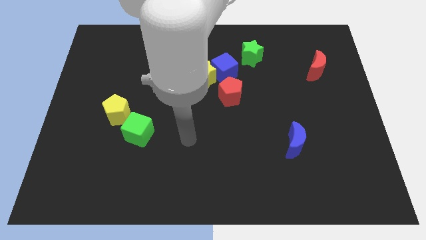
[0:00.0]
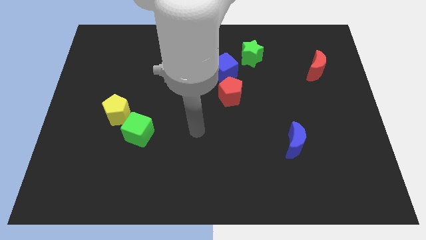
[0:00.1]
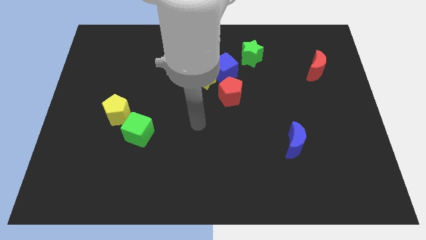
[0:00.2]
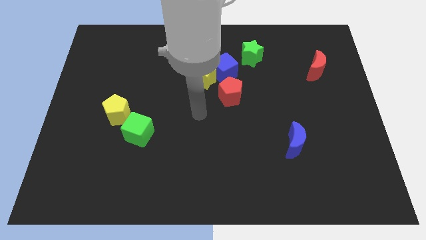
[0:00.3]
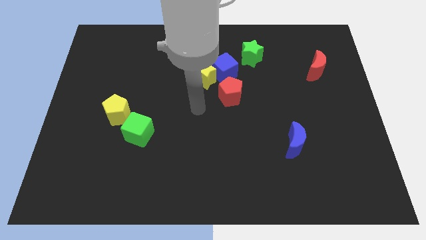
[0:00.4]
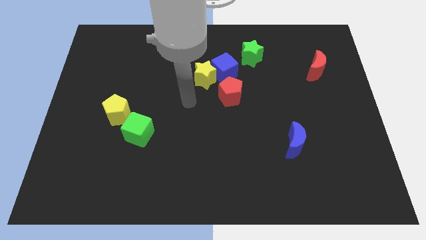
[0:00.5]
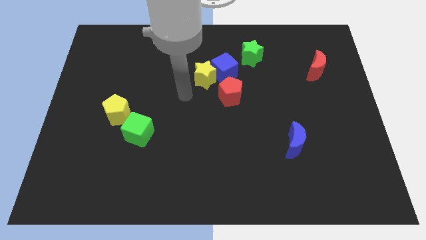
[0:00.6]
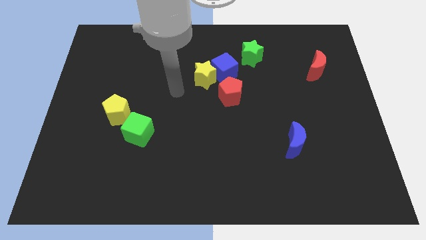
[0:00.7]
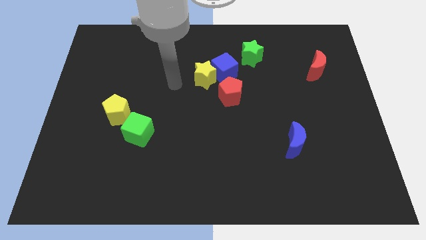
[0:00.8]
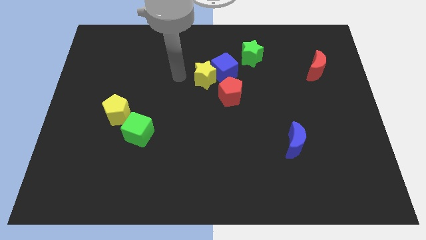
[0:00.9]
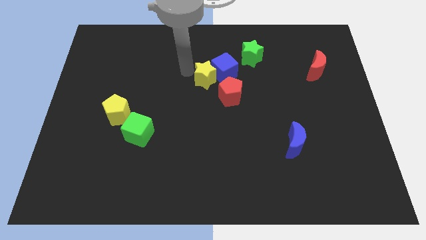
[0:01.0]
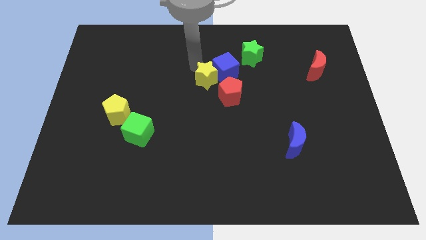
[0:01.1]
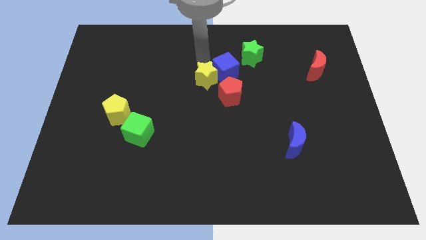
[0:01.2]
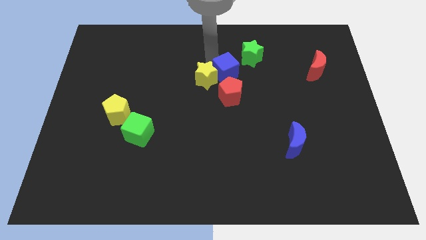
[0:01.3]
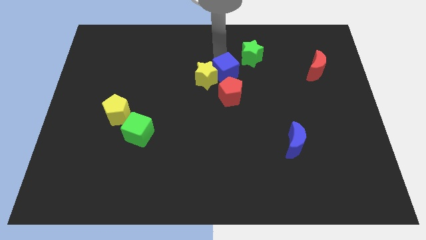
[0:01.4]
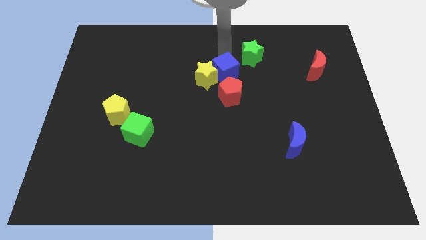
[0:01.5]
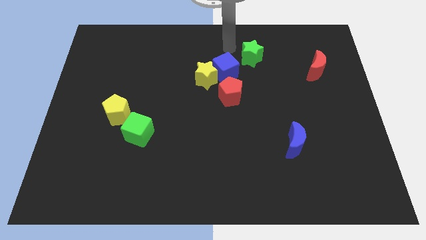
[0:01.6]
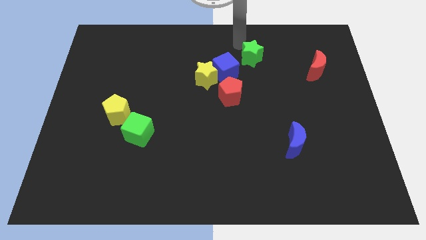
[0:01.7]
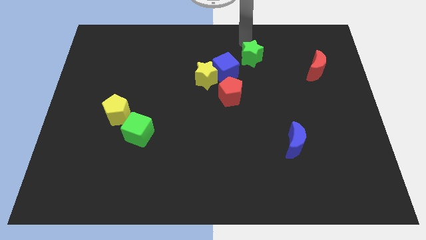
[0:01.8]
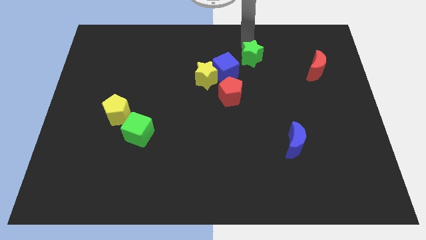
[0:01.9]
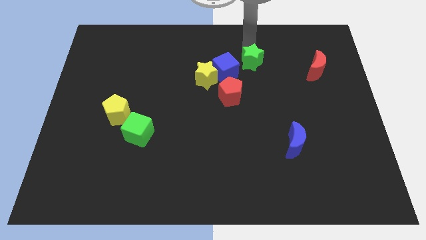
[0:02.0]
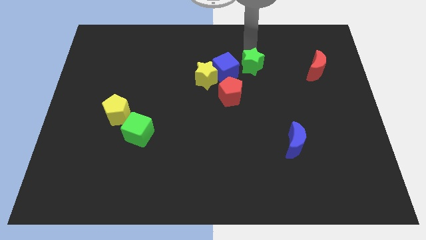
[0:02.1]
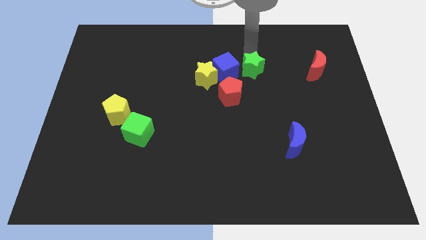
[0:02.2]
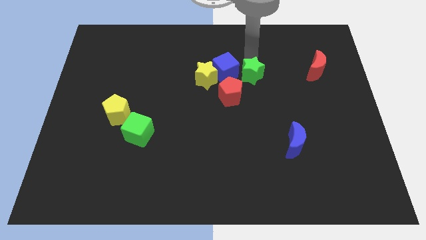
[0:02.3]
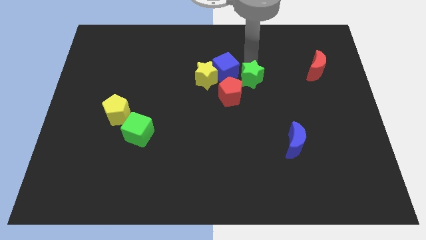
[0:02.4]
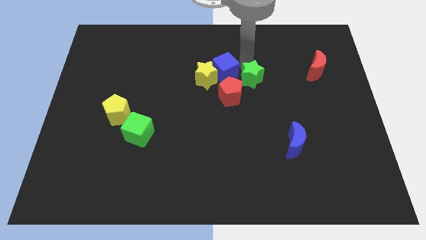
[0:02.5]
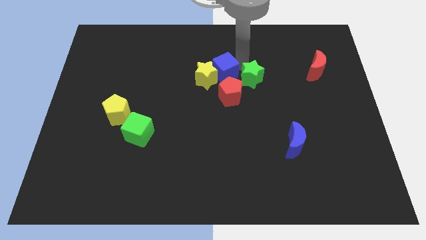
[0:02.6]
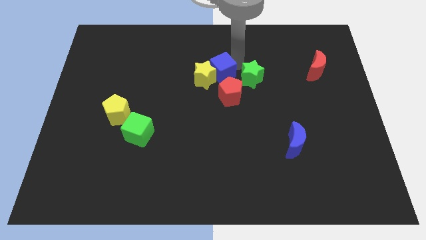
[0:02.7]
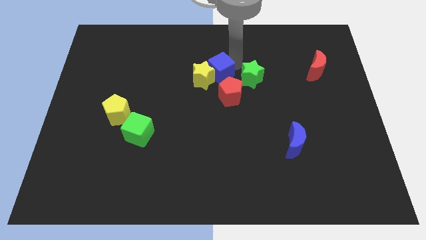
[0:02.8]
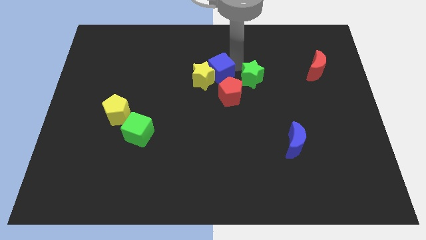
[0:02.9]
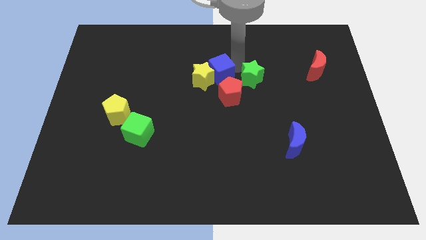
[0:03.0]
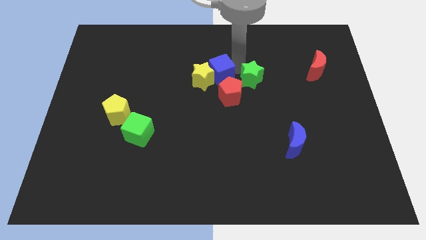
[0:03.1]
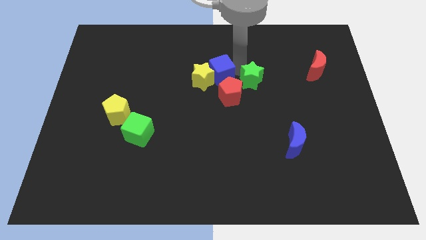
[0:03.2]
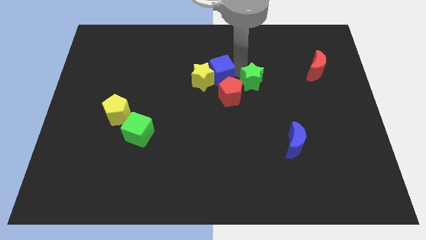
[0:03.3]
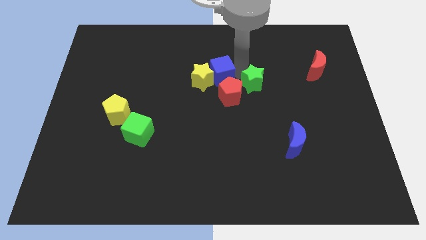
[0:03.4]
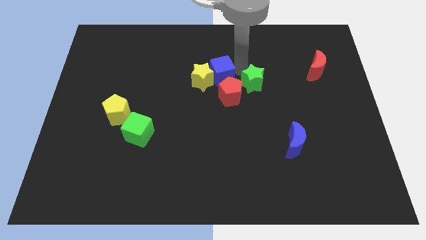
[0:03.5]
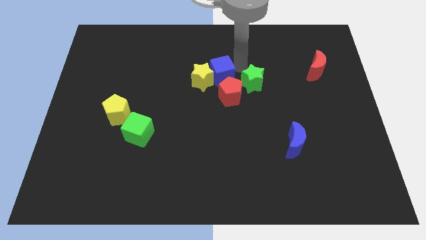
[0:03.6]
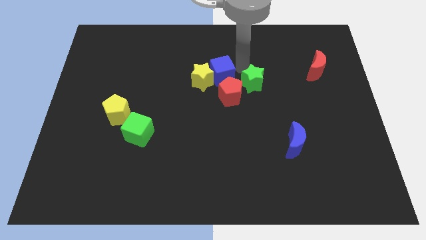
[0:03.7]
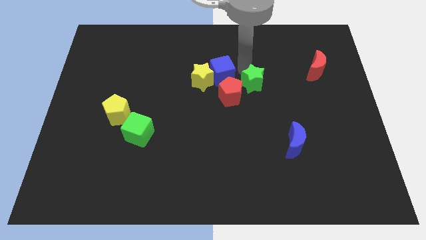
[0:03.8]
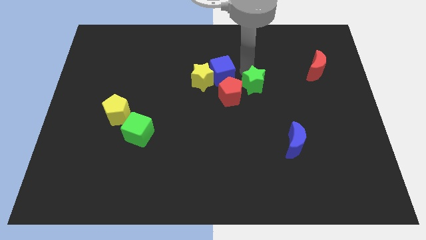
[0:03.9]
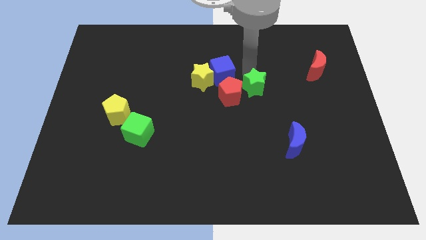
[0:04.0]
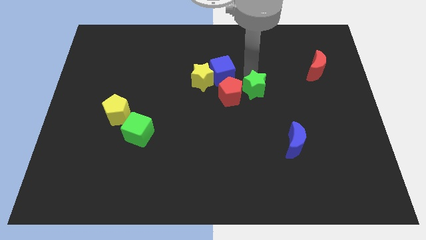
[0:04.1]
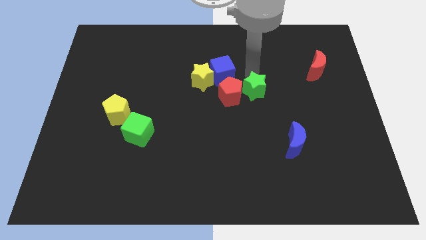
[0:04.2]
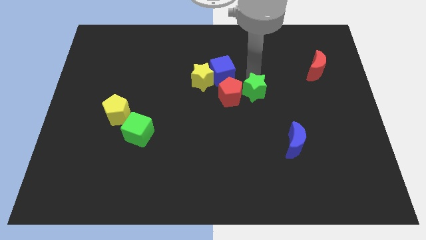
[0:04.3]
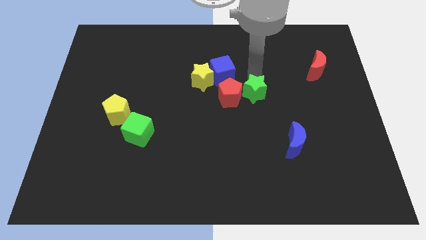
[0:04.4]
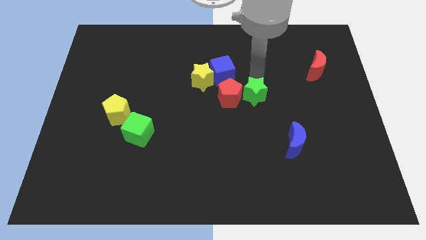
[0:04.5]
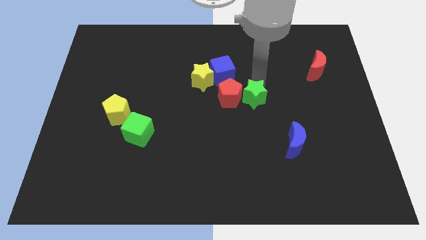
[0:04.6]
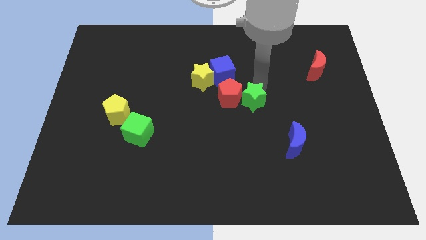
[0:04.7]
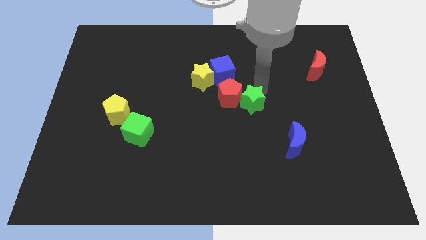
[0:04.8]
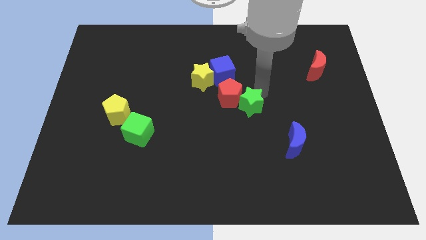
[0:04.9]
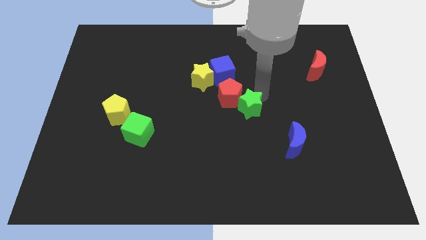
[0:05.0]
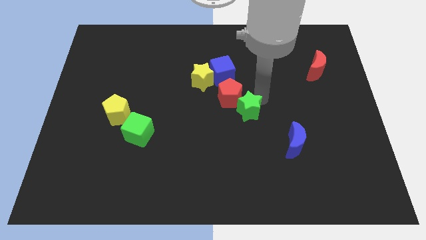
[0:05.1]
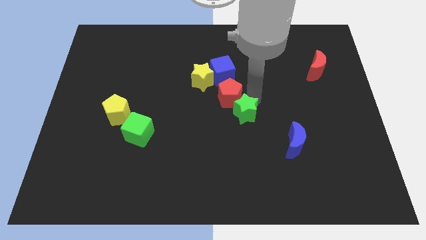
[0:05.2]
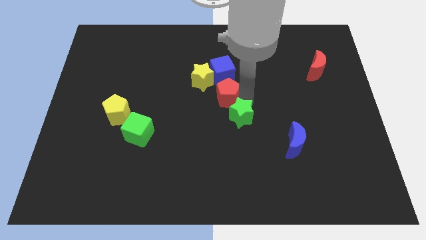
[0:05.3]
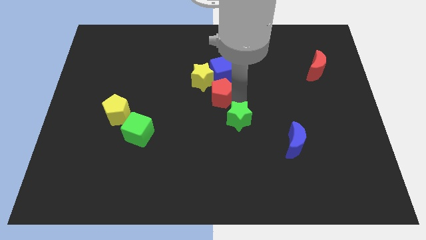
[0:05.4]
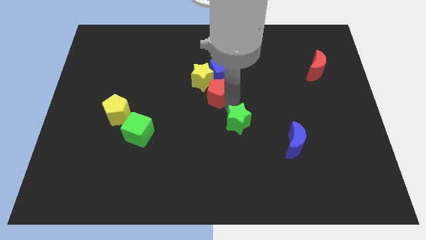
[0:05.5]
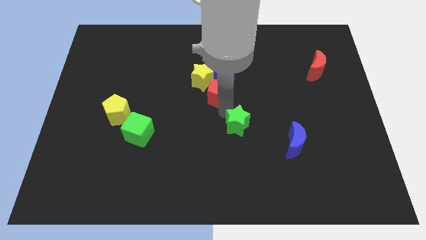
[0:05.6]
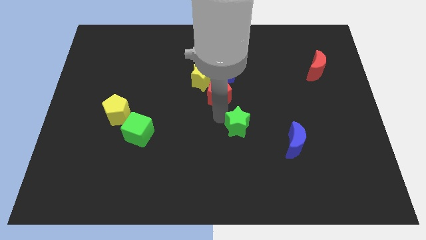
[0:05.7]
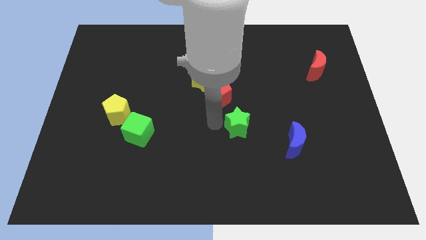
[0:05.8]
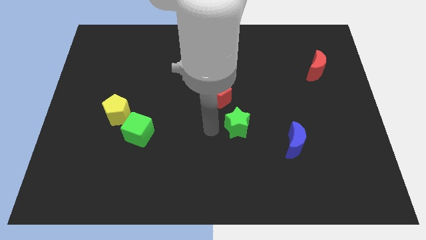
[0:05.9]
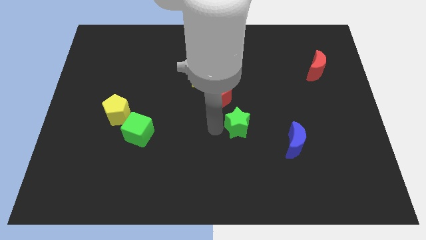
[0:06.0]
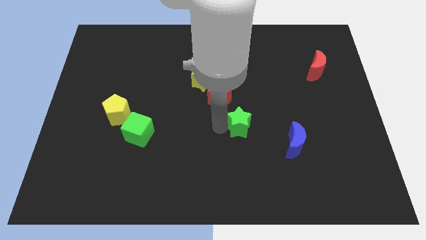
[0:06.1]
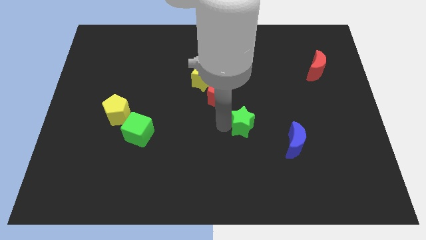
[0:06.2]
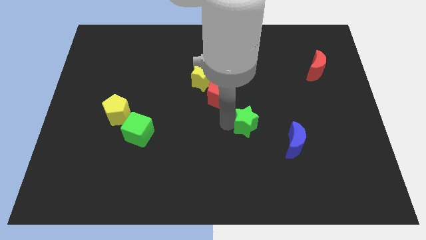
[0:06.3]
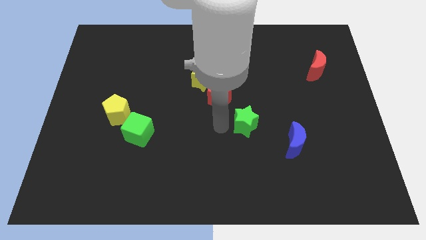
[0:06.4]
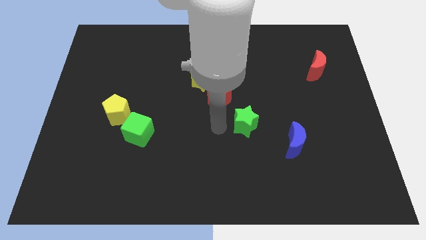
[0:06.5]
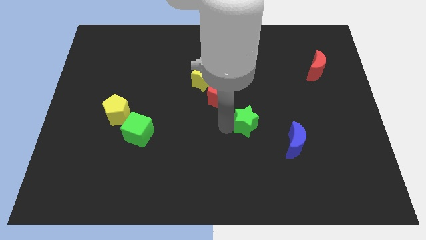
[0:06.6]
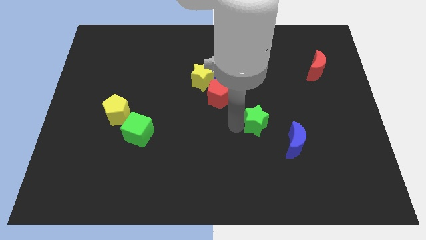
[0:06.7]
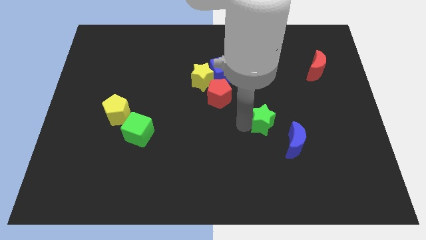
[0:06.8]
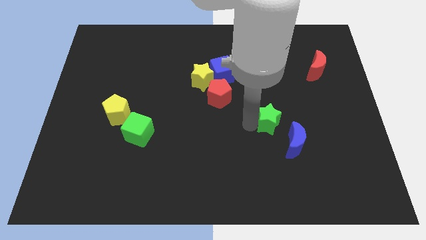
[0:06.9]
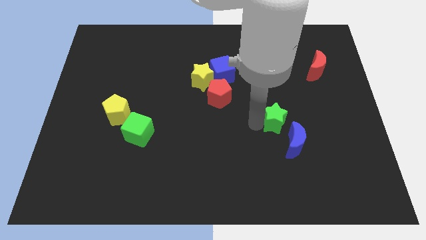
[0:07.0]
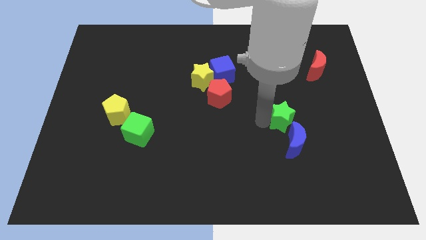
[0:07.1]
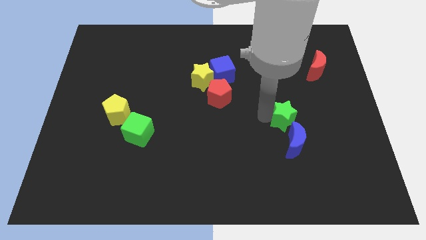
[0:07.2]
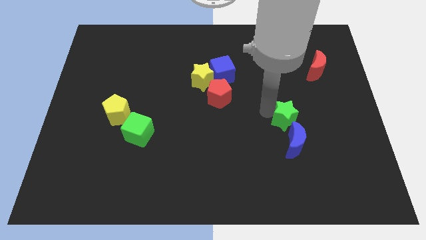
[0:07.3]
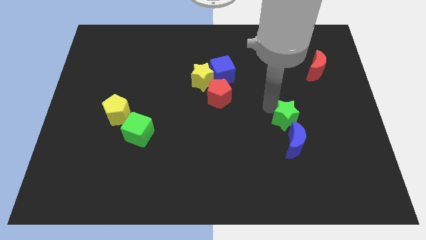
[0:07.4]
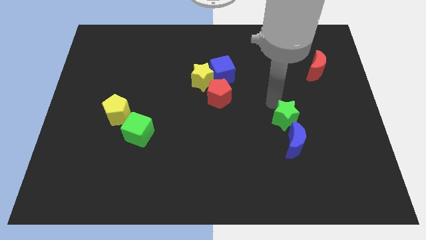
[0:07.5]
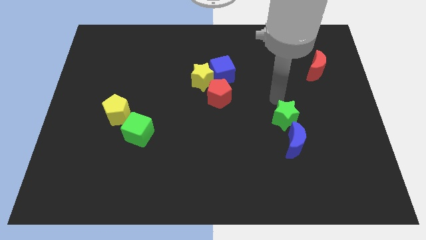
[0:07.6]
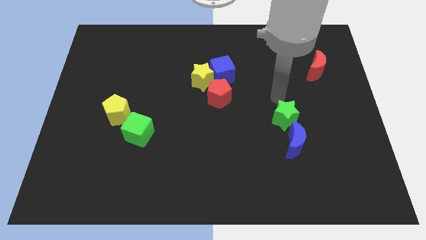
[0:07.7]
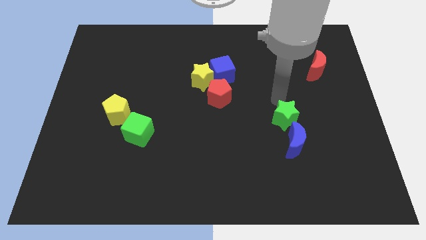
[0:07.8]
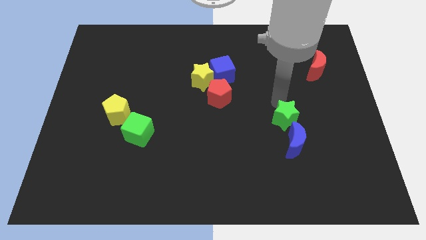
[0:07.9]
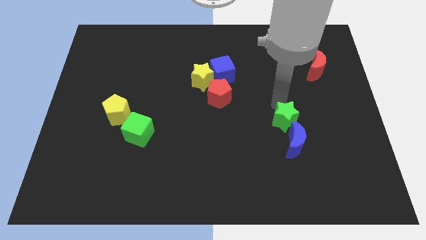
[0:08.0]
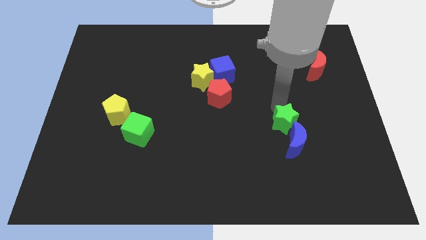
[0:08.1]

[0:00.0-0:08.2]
put the green star towards the blue moon
